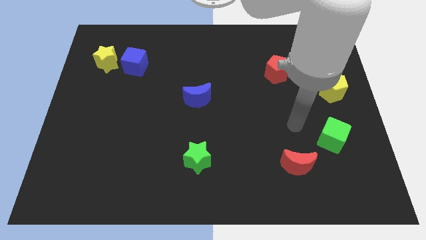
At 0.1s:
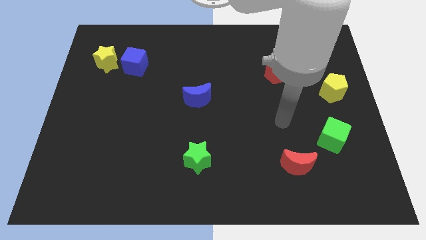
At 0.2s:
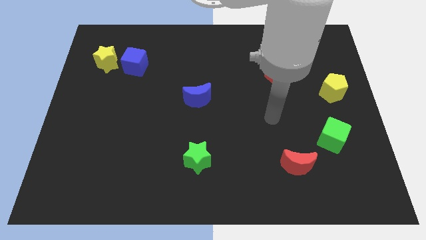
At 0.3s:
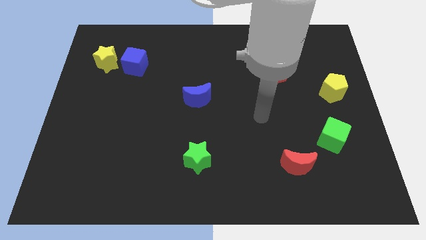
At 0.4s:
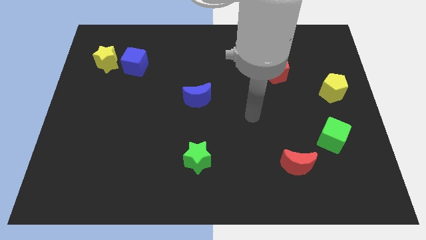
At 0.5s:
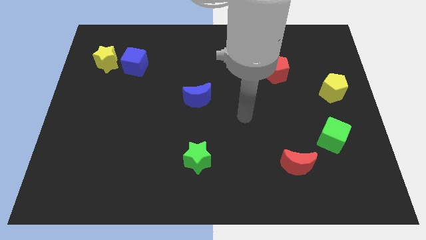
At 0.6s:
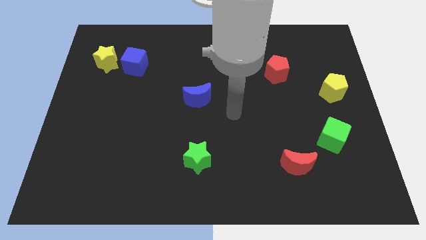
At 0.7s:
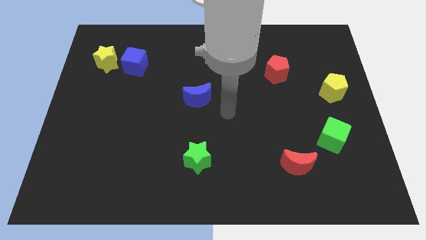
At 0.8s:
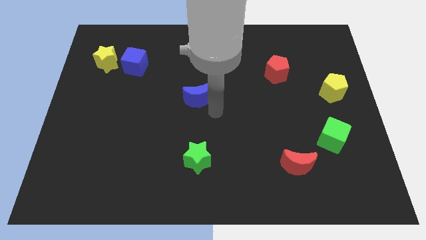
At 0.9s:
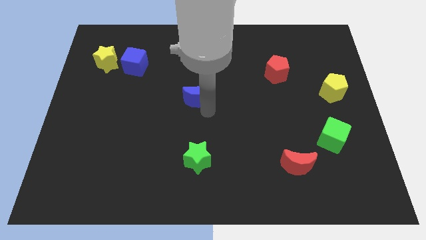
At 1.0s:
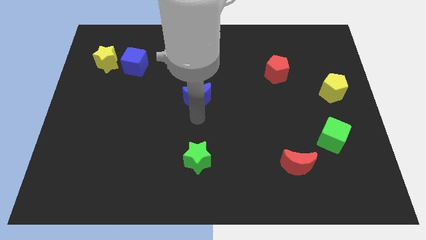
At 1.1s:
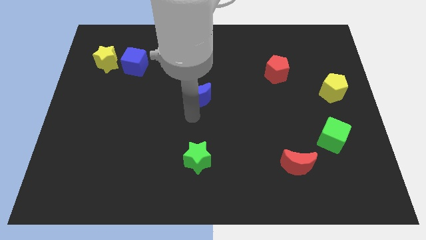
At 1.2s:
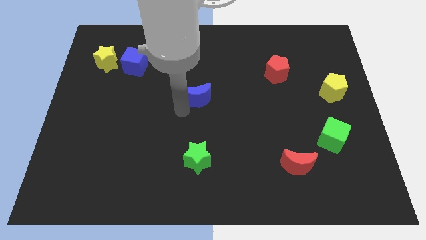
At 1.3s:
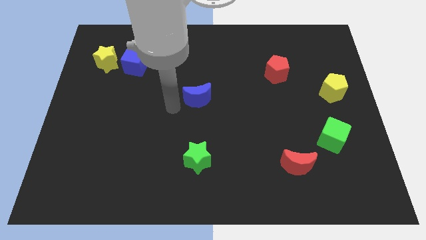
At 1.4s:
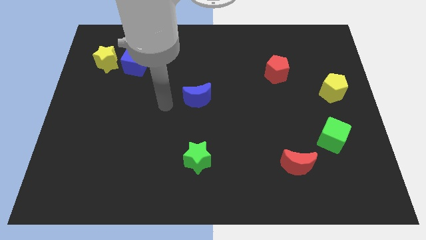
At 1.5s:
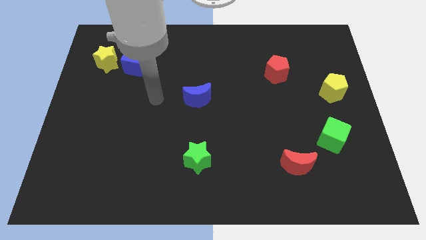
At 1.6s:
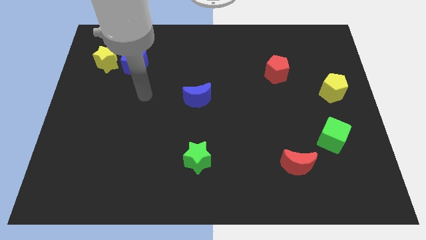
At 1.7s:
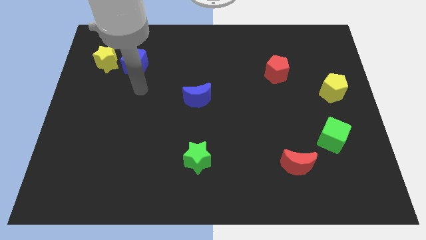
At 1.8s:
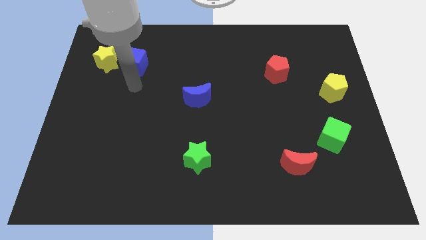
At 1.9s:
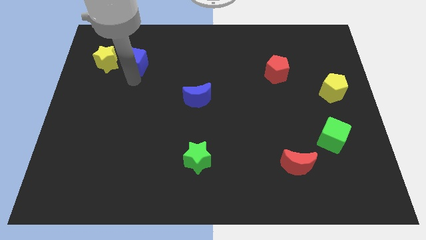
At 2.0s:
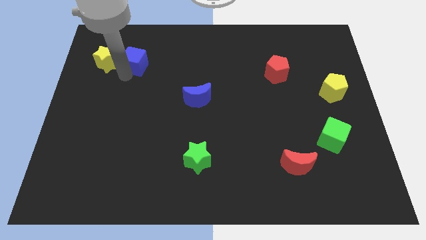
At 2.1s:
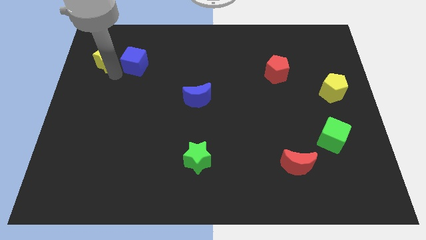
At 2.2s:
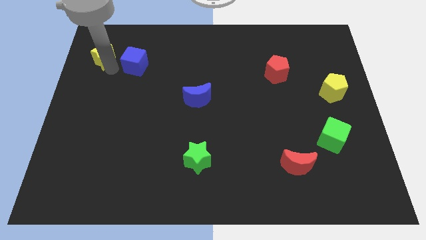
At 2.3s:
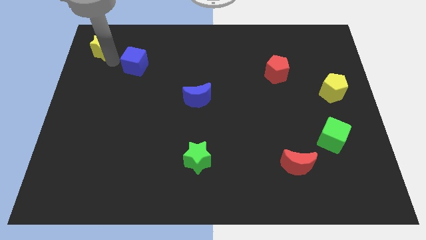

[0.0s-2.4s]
pull the blue cube apart from the yellow star

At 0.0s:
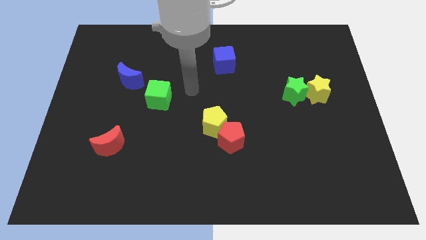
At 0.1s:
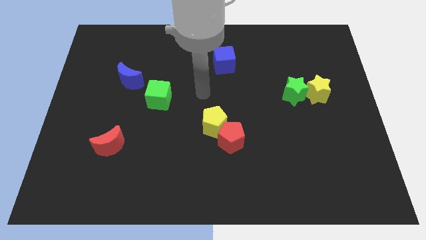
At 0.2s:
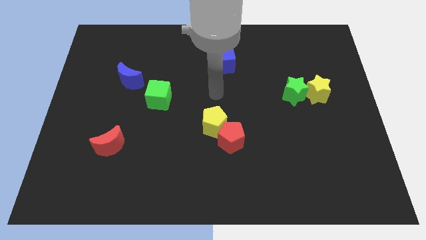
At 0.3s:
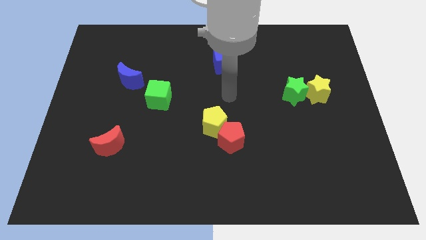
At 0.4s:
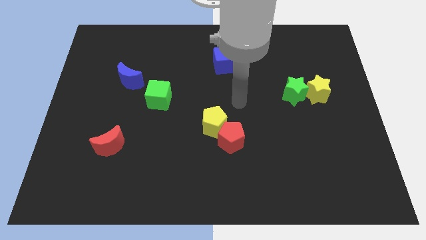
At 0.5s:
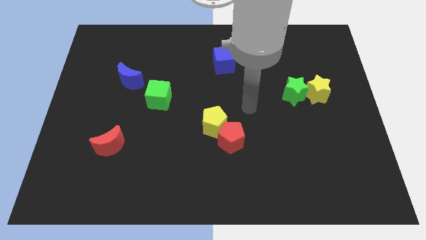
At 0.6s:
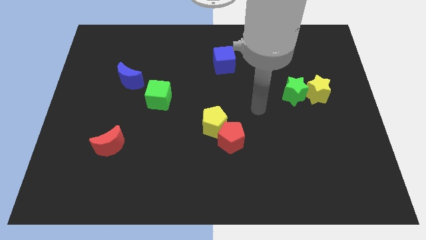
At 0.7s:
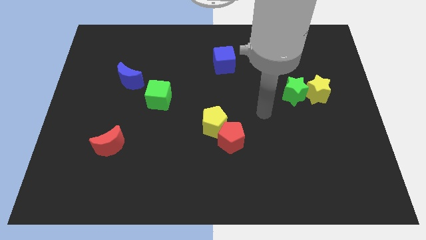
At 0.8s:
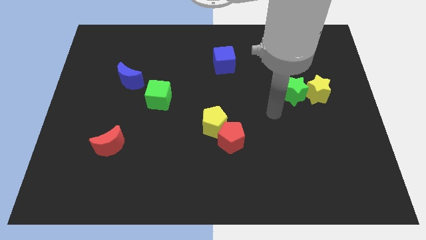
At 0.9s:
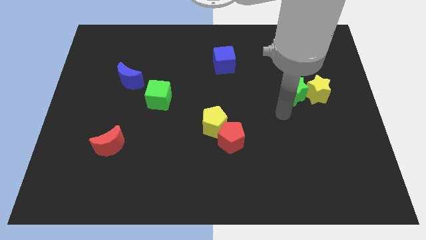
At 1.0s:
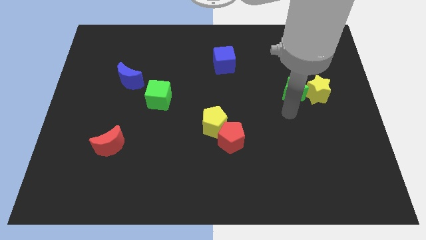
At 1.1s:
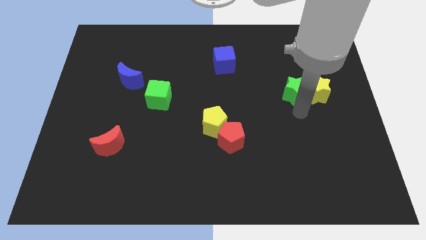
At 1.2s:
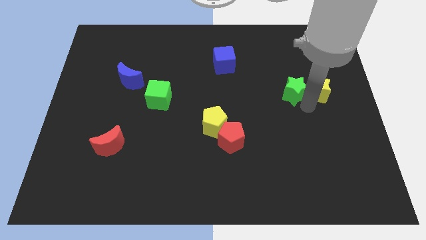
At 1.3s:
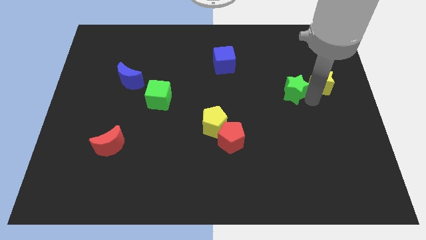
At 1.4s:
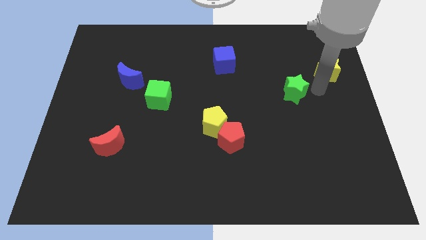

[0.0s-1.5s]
pull the green star apart from the yellow star

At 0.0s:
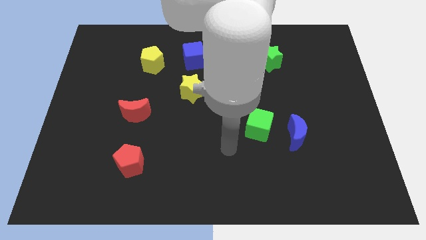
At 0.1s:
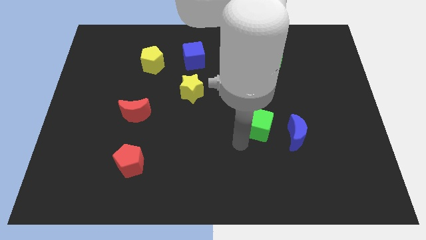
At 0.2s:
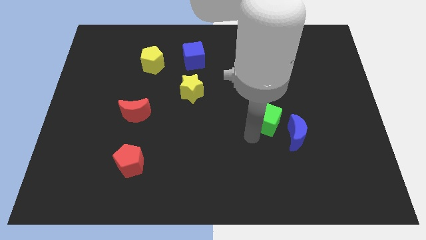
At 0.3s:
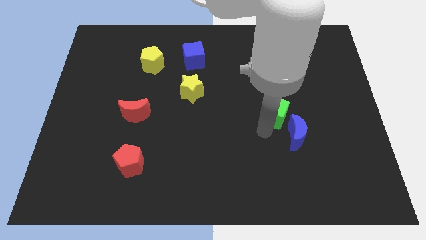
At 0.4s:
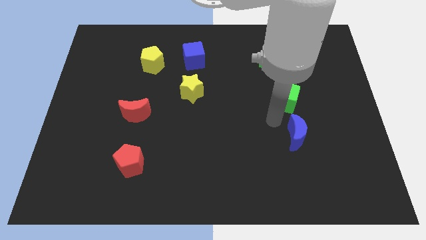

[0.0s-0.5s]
pull the blue moon apart from the green cube

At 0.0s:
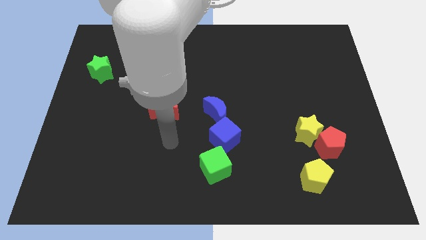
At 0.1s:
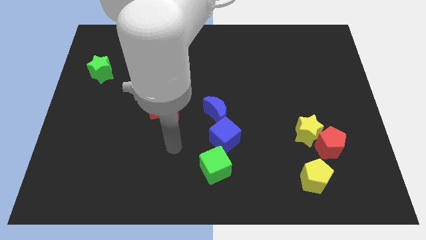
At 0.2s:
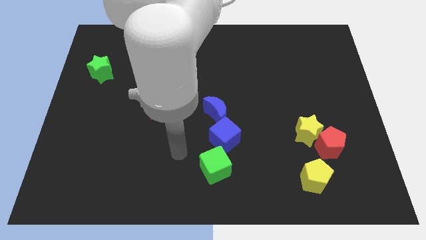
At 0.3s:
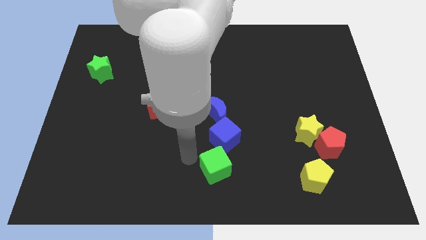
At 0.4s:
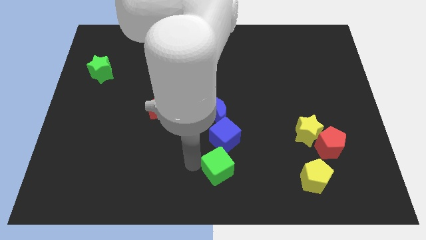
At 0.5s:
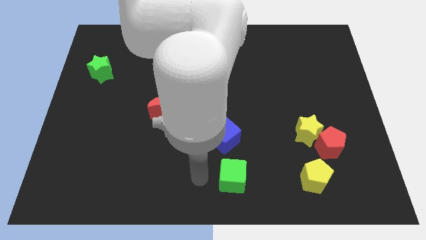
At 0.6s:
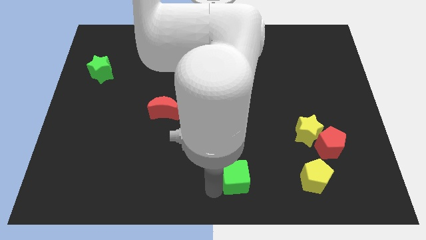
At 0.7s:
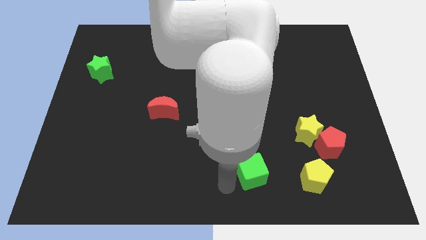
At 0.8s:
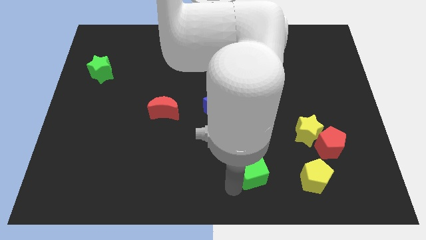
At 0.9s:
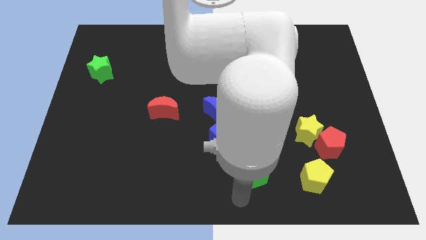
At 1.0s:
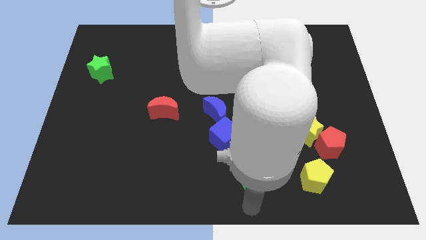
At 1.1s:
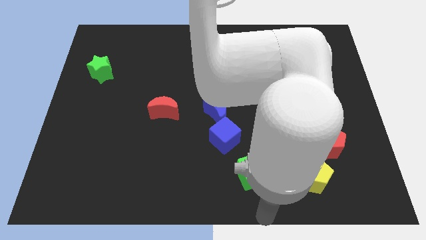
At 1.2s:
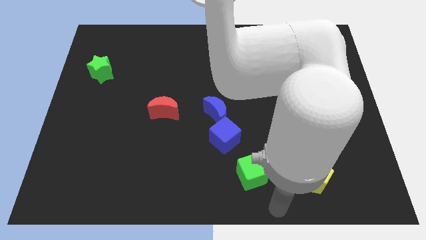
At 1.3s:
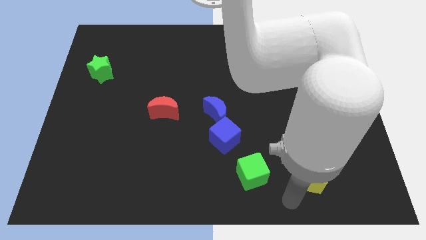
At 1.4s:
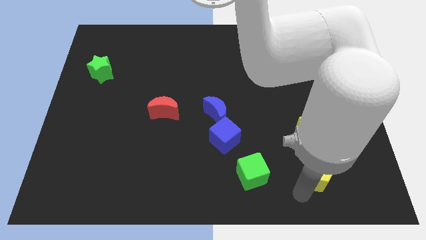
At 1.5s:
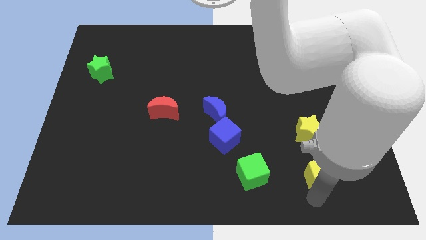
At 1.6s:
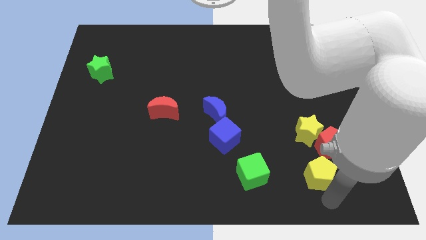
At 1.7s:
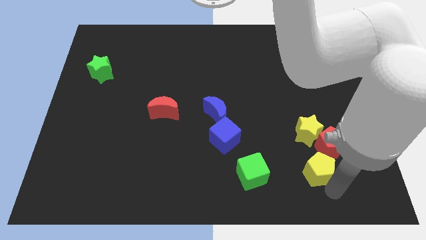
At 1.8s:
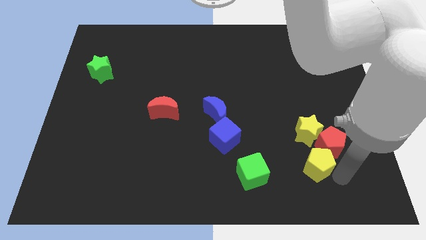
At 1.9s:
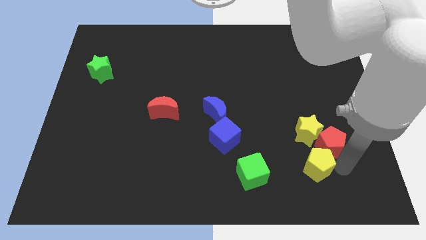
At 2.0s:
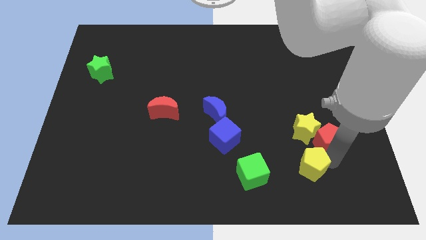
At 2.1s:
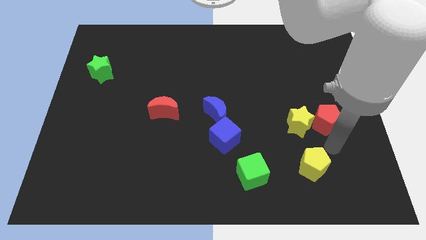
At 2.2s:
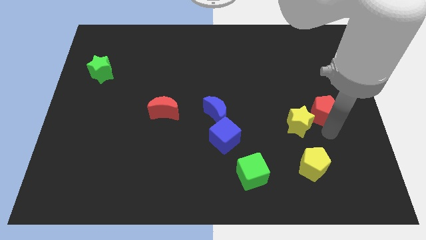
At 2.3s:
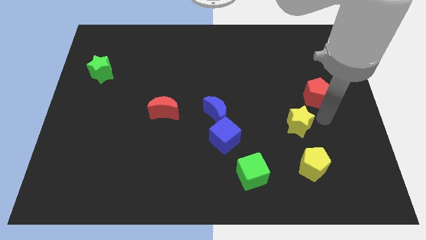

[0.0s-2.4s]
move the yellow star away from the red pentagon

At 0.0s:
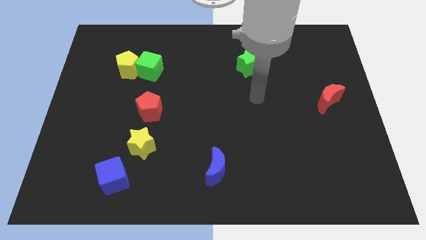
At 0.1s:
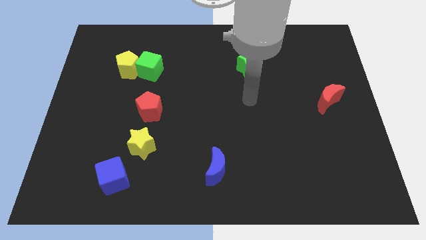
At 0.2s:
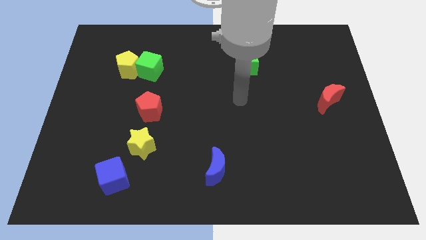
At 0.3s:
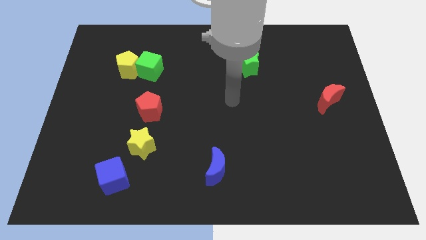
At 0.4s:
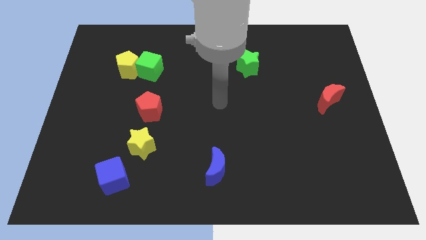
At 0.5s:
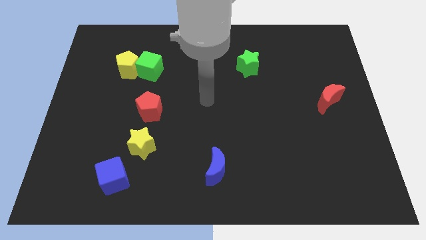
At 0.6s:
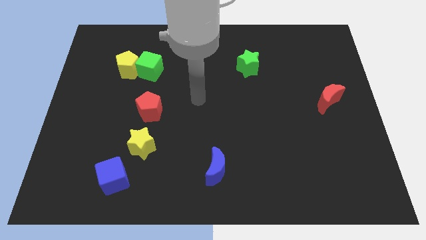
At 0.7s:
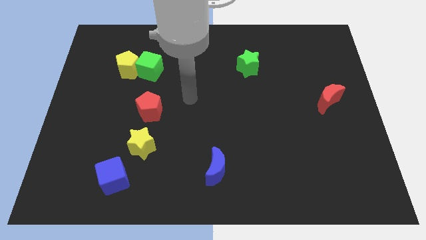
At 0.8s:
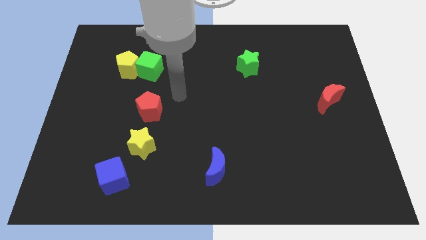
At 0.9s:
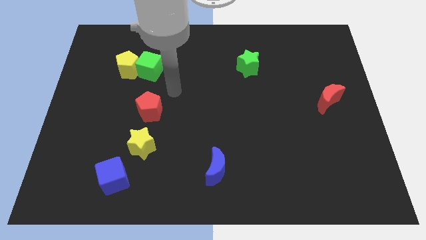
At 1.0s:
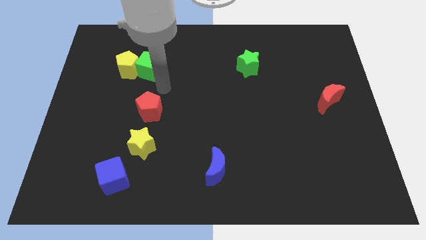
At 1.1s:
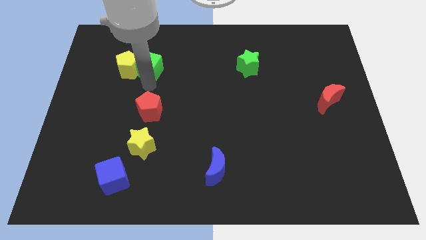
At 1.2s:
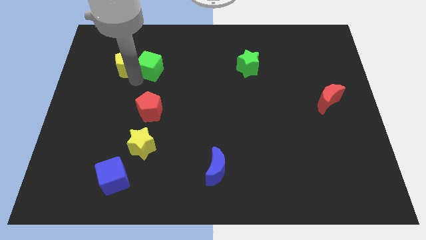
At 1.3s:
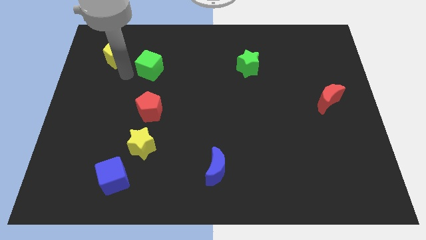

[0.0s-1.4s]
move the green cube away from the yellow pentagon

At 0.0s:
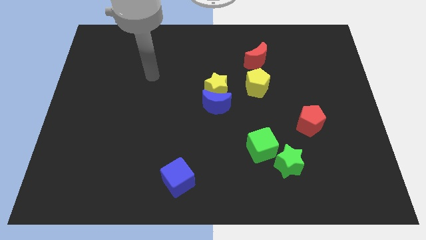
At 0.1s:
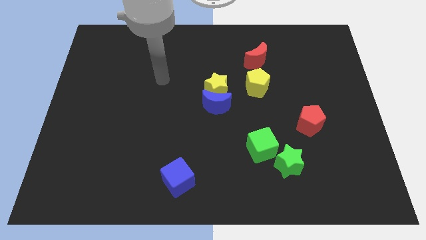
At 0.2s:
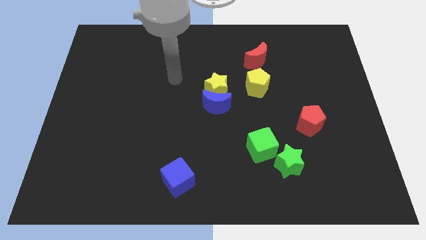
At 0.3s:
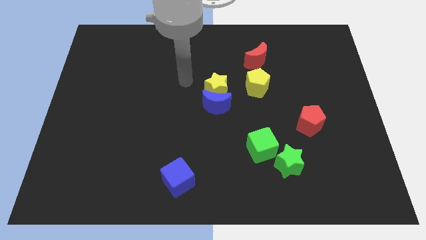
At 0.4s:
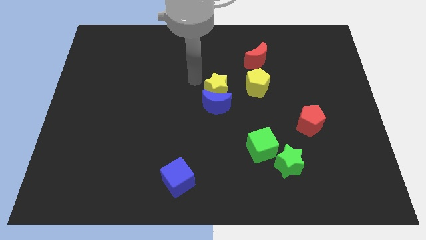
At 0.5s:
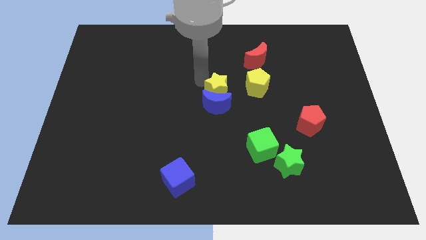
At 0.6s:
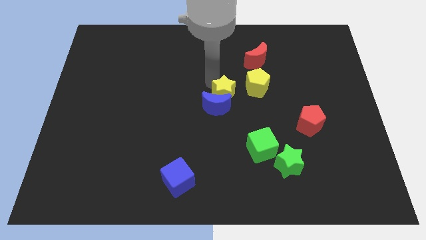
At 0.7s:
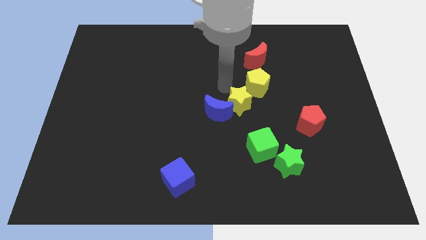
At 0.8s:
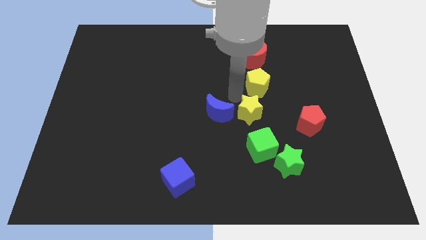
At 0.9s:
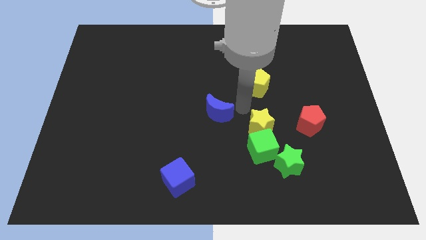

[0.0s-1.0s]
separate the blue moon from the yellow star
